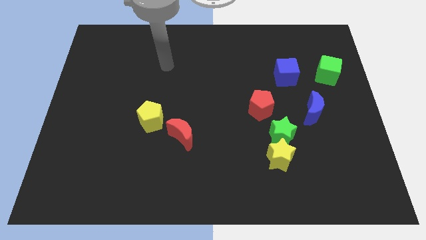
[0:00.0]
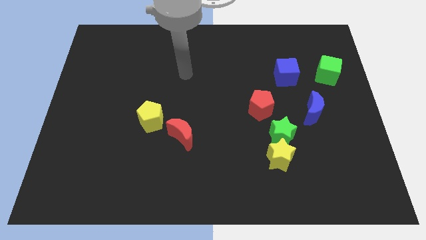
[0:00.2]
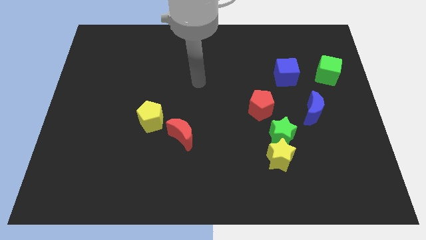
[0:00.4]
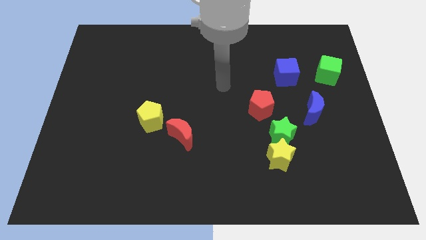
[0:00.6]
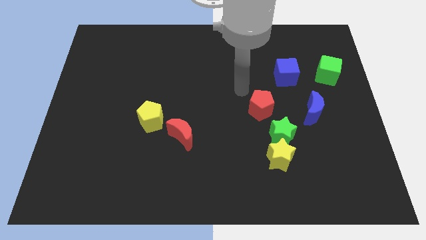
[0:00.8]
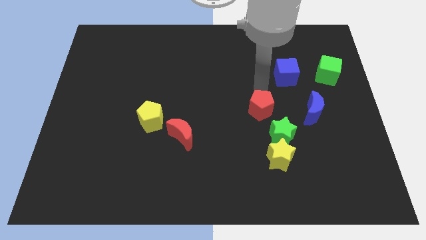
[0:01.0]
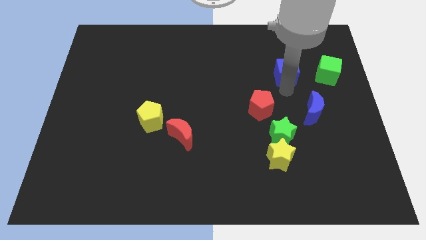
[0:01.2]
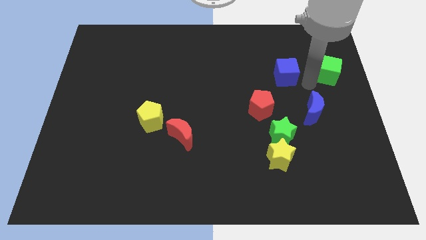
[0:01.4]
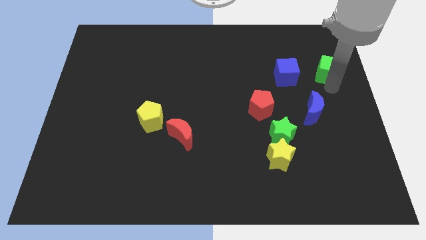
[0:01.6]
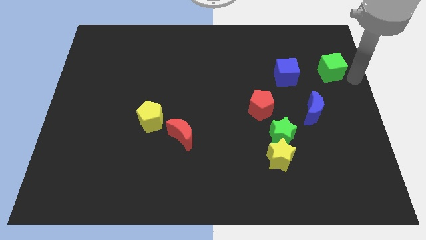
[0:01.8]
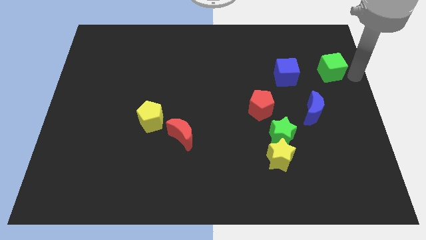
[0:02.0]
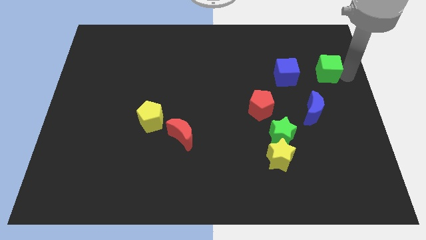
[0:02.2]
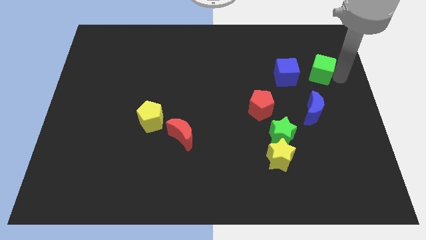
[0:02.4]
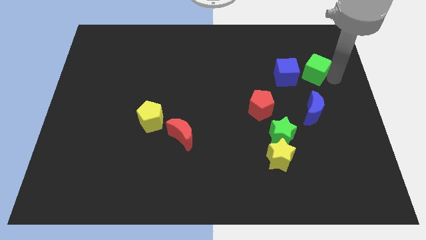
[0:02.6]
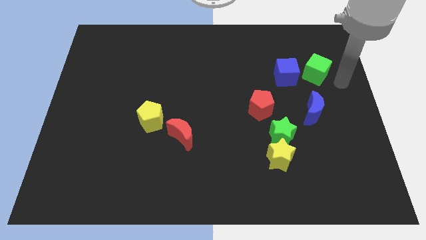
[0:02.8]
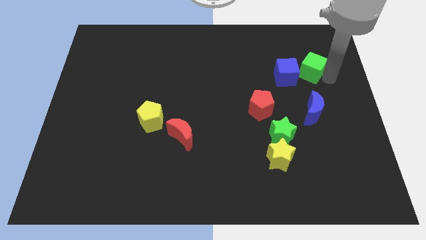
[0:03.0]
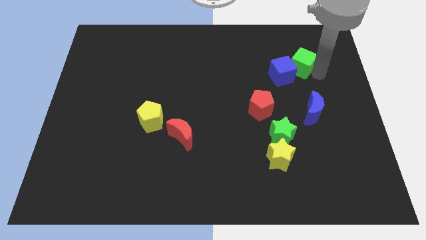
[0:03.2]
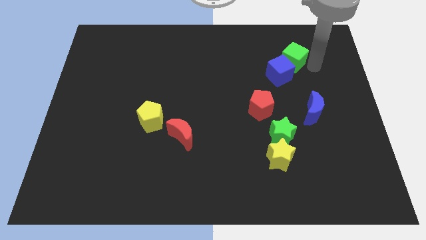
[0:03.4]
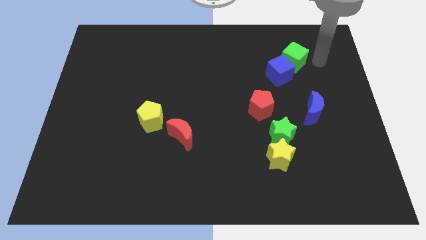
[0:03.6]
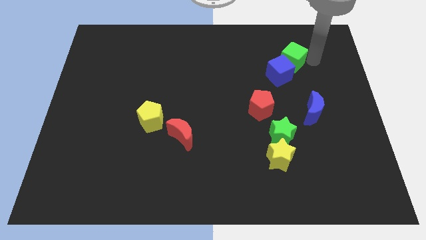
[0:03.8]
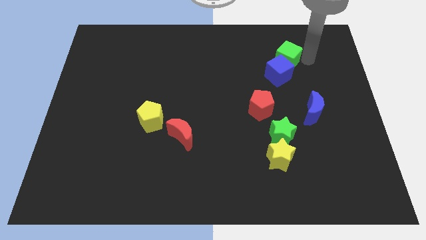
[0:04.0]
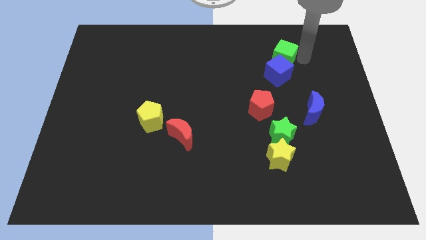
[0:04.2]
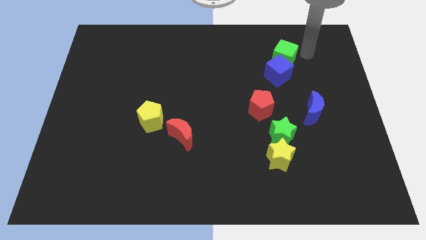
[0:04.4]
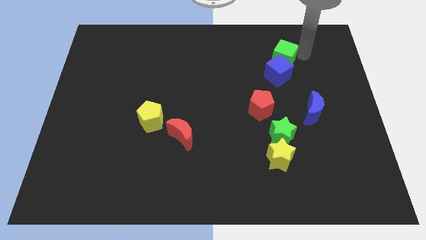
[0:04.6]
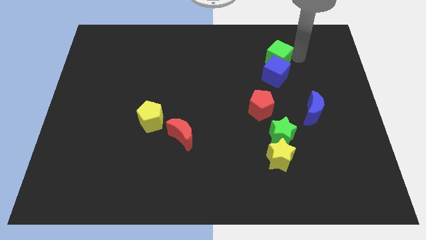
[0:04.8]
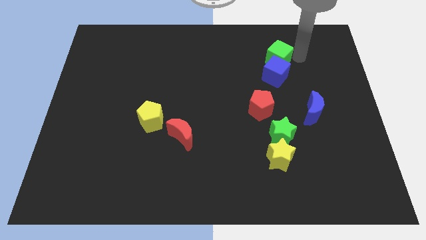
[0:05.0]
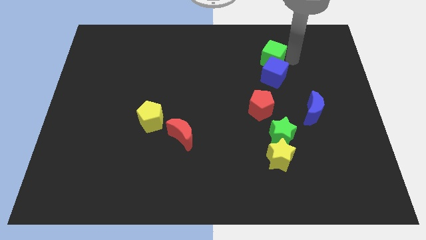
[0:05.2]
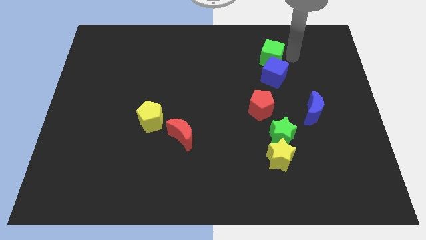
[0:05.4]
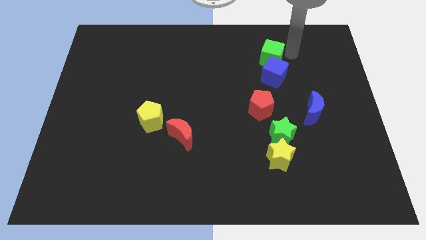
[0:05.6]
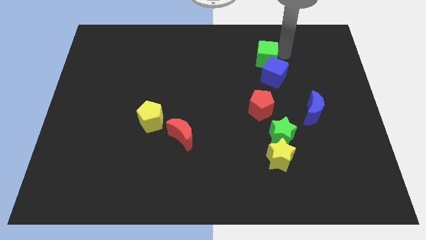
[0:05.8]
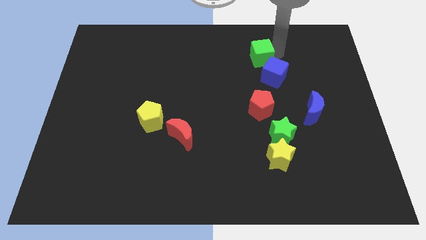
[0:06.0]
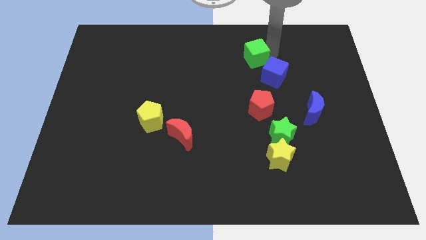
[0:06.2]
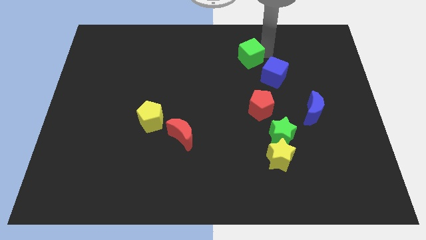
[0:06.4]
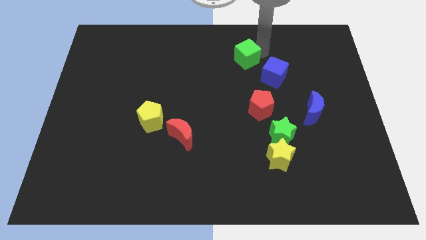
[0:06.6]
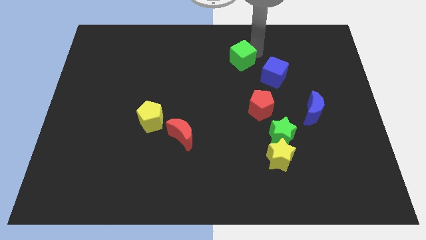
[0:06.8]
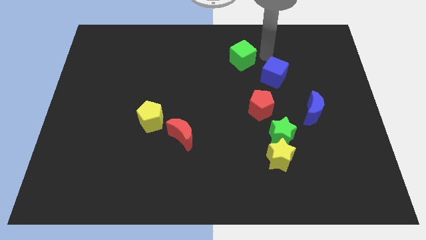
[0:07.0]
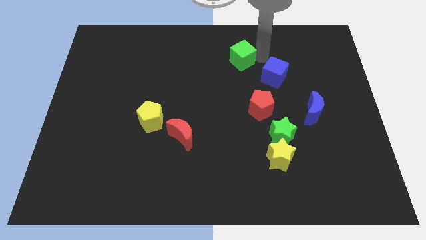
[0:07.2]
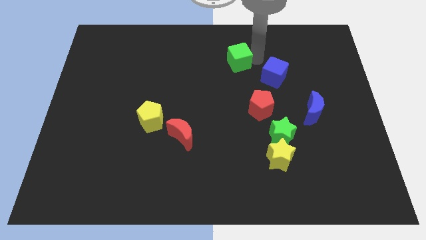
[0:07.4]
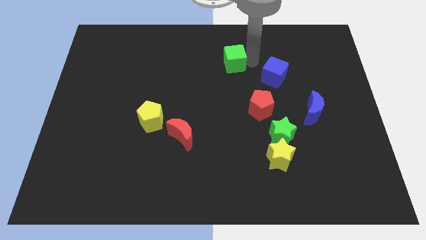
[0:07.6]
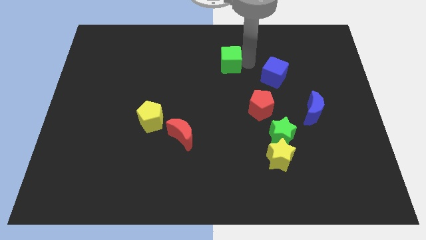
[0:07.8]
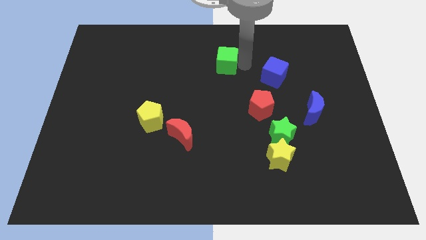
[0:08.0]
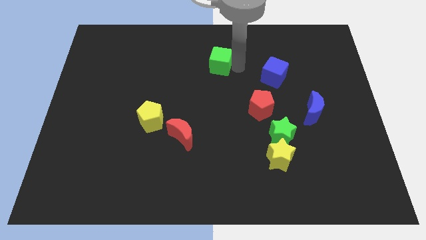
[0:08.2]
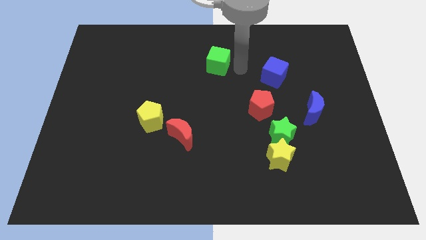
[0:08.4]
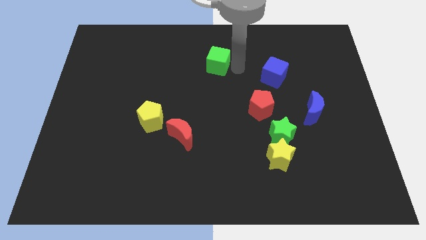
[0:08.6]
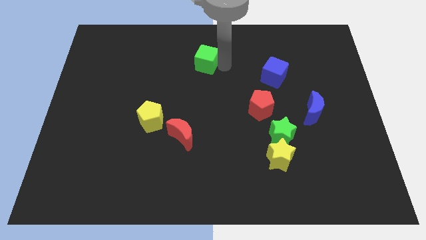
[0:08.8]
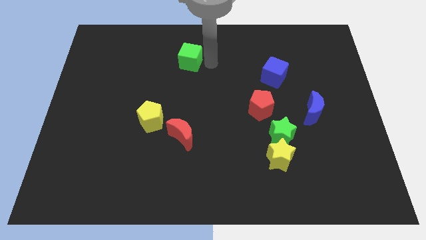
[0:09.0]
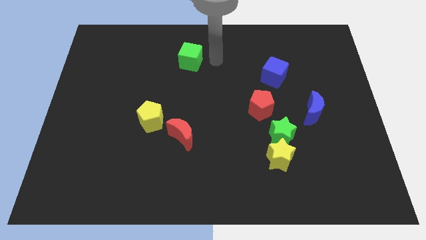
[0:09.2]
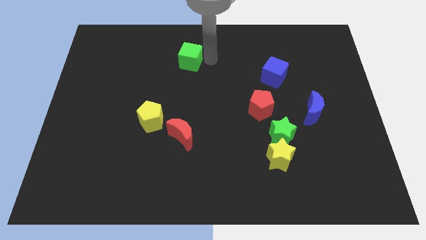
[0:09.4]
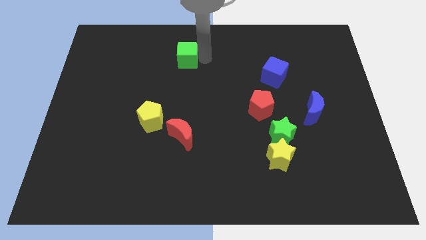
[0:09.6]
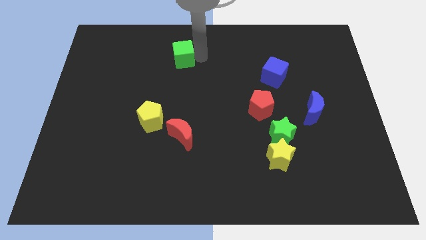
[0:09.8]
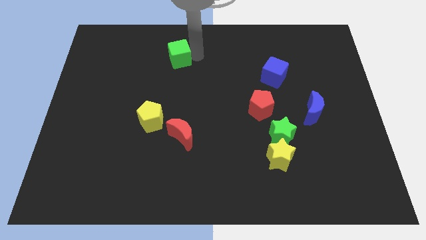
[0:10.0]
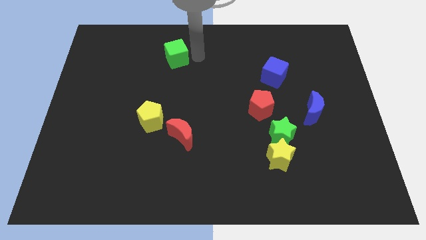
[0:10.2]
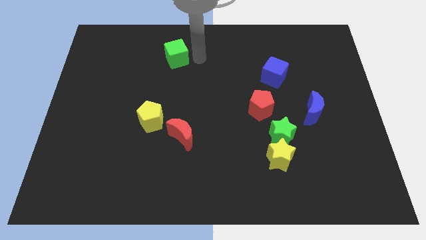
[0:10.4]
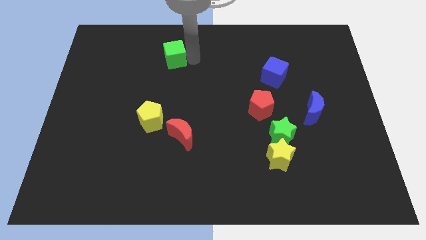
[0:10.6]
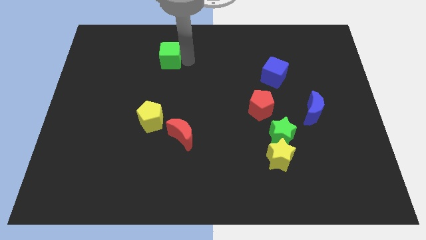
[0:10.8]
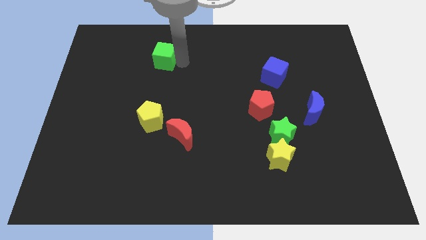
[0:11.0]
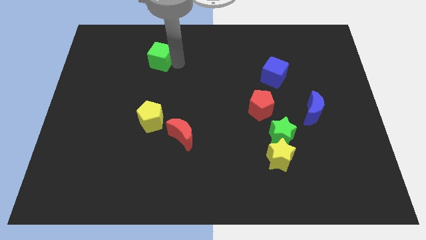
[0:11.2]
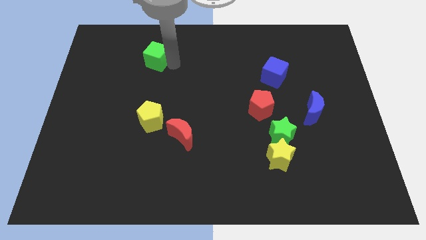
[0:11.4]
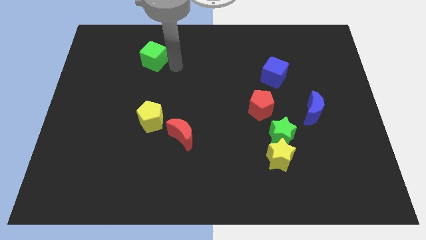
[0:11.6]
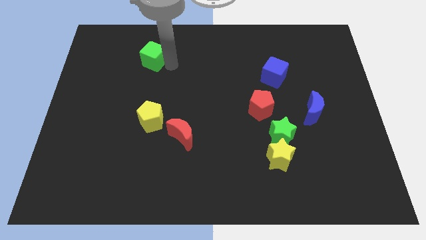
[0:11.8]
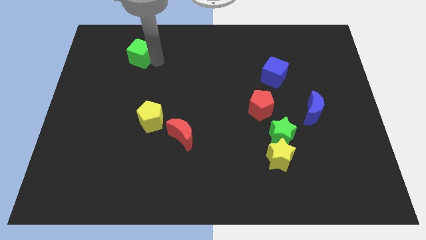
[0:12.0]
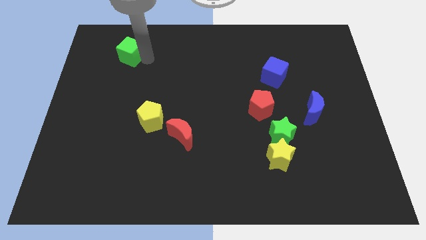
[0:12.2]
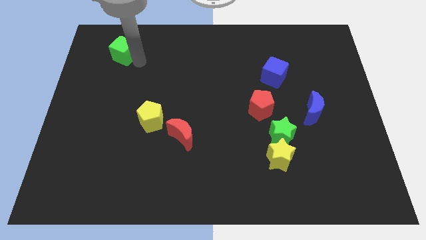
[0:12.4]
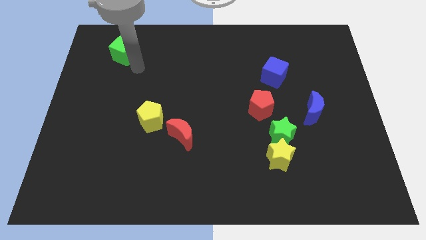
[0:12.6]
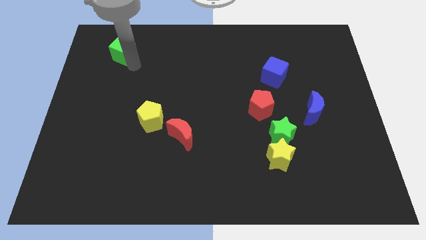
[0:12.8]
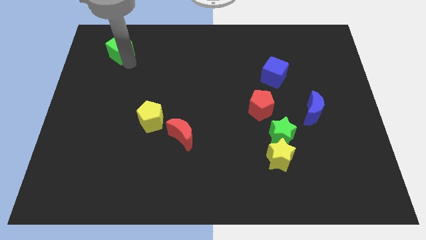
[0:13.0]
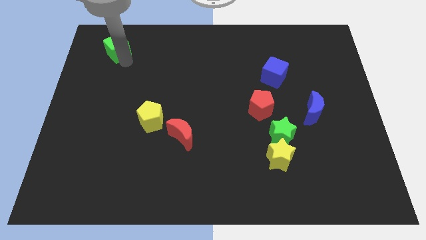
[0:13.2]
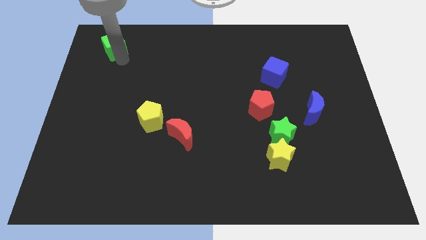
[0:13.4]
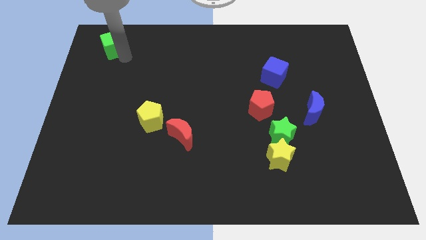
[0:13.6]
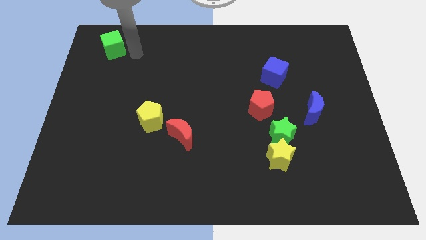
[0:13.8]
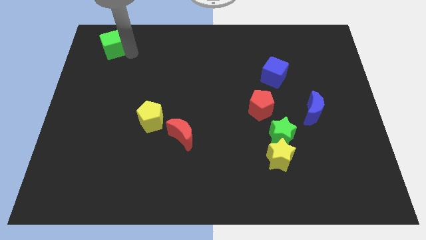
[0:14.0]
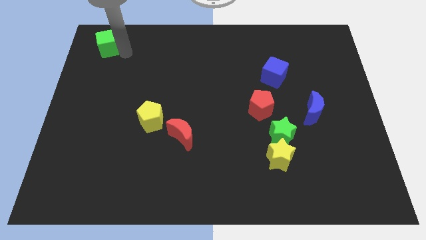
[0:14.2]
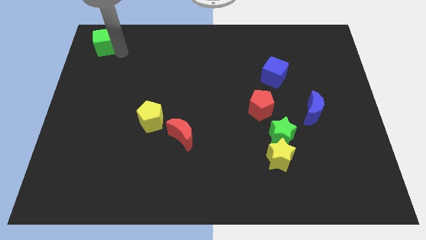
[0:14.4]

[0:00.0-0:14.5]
slide the green cube to the top left of the board
